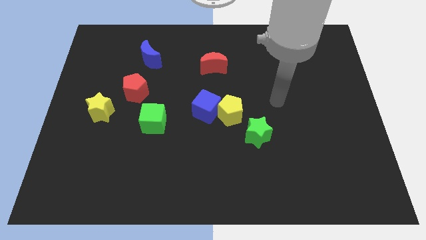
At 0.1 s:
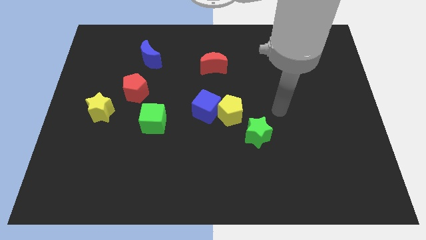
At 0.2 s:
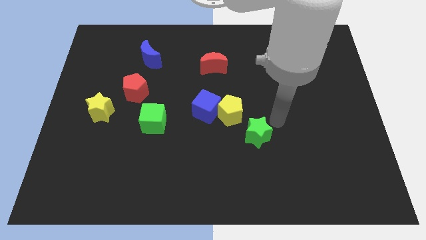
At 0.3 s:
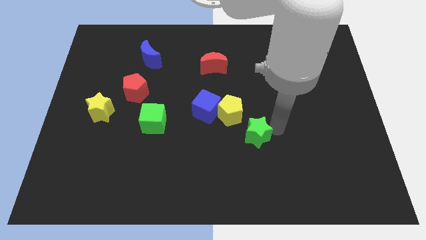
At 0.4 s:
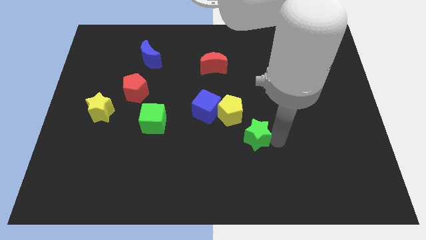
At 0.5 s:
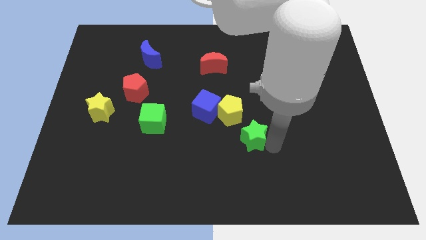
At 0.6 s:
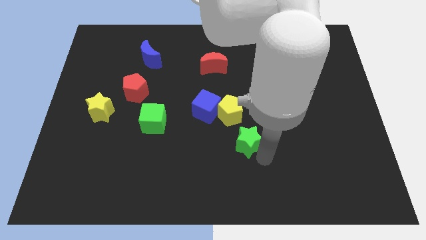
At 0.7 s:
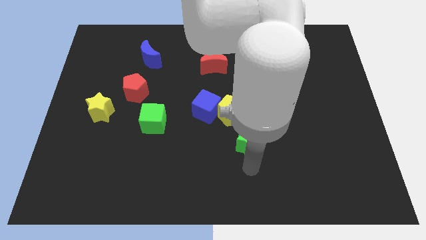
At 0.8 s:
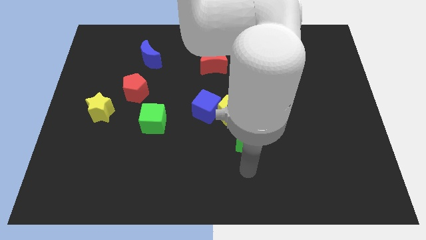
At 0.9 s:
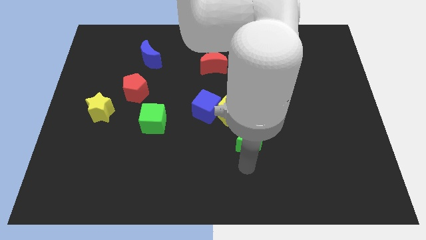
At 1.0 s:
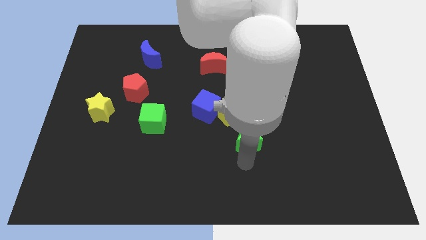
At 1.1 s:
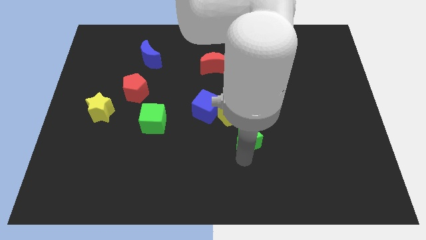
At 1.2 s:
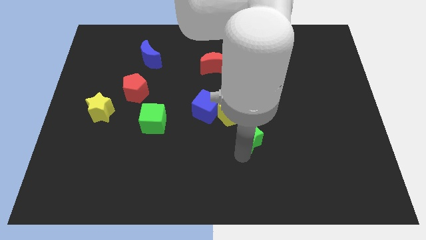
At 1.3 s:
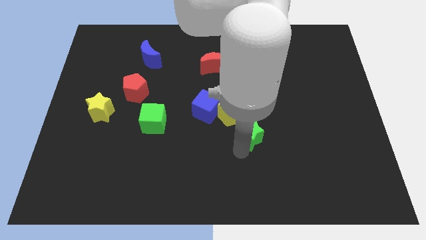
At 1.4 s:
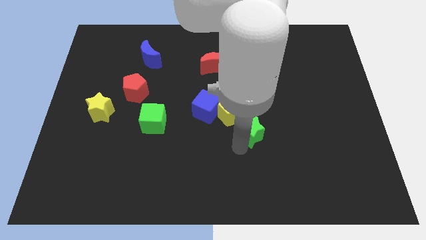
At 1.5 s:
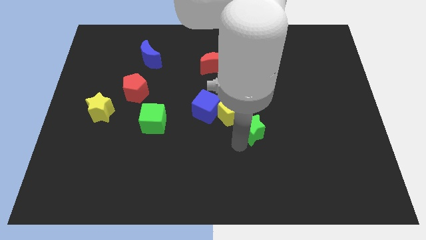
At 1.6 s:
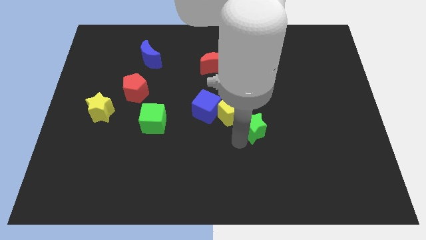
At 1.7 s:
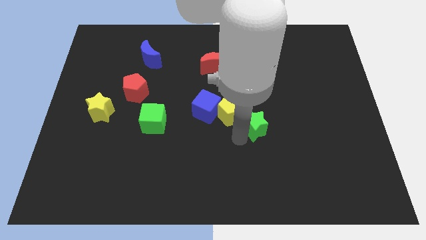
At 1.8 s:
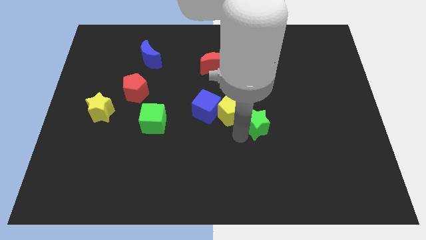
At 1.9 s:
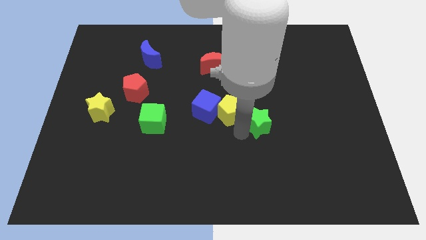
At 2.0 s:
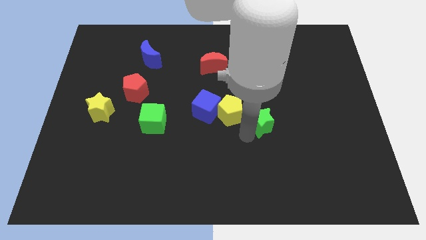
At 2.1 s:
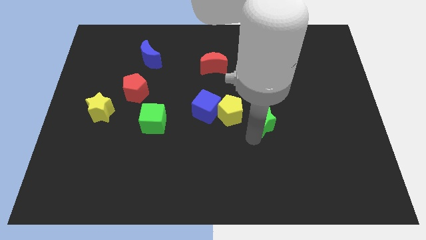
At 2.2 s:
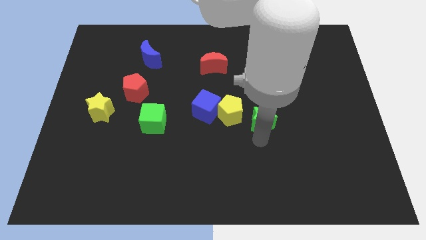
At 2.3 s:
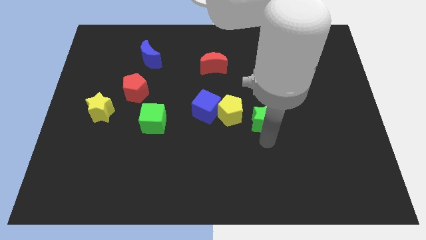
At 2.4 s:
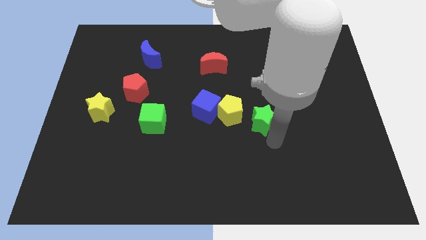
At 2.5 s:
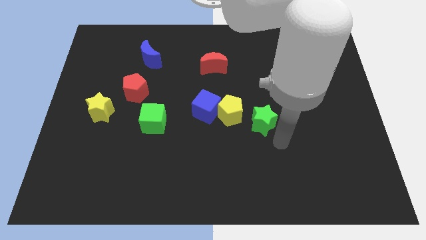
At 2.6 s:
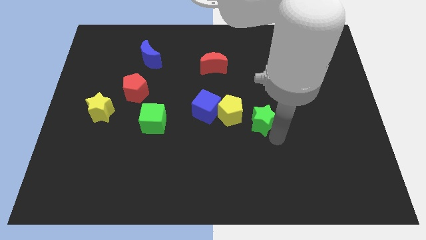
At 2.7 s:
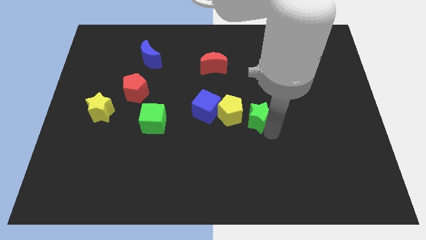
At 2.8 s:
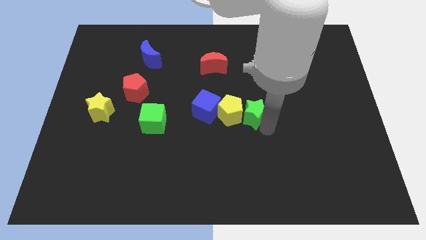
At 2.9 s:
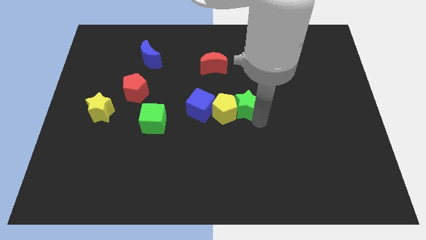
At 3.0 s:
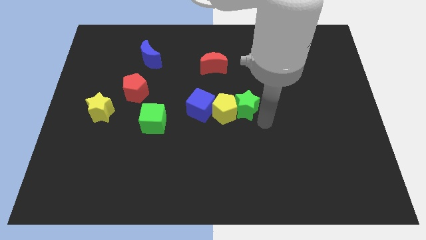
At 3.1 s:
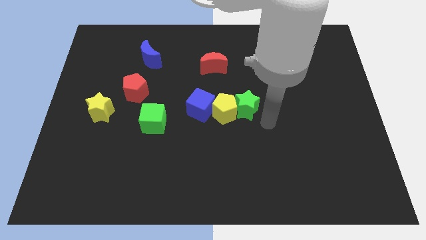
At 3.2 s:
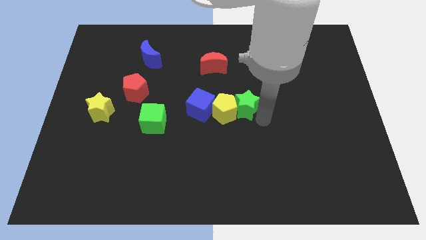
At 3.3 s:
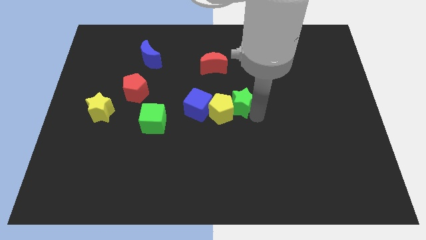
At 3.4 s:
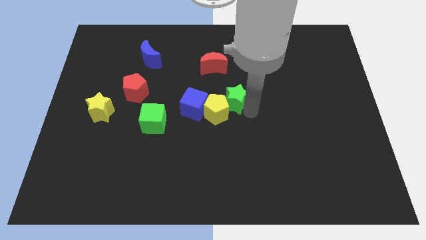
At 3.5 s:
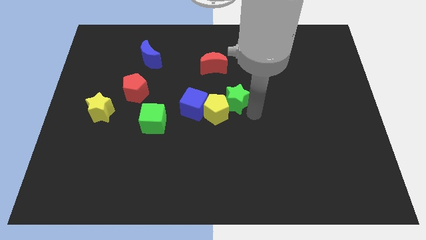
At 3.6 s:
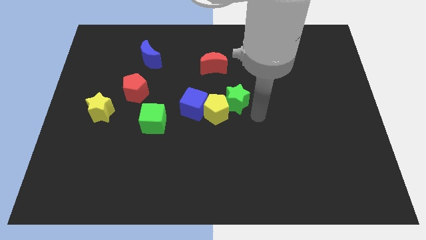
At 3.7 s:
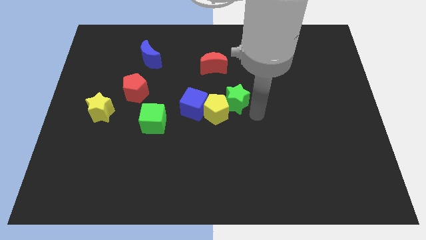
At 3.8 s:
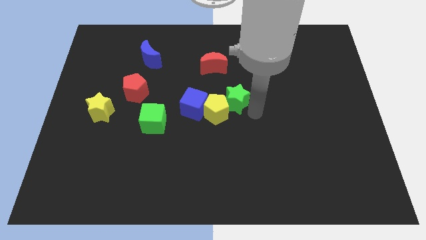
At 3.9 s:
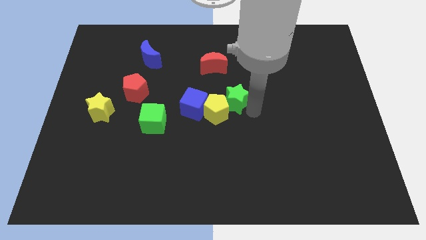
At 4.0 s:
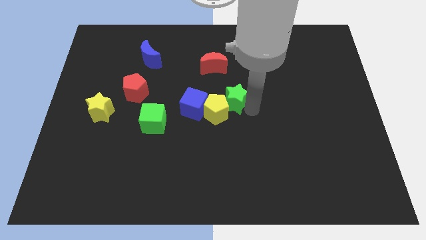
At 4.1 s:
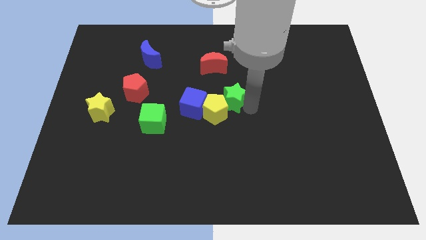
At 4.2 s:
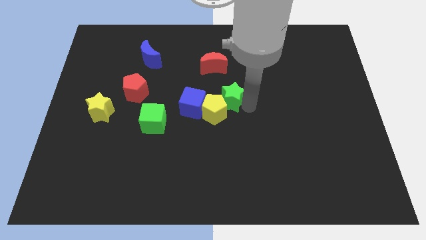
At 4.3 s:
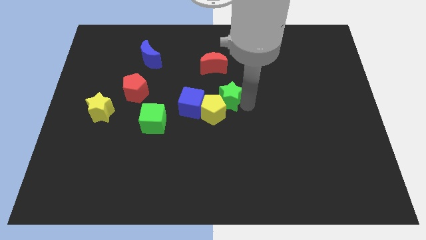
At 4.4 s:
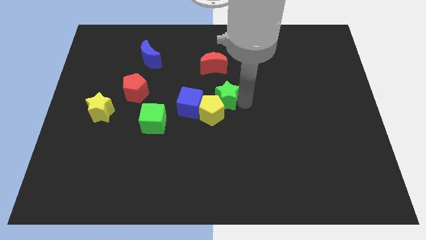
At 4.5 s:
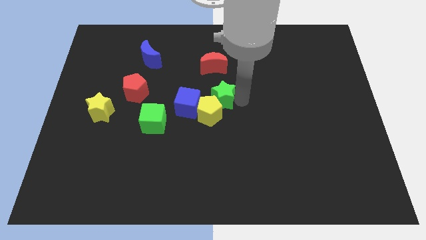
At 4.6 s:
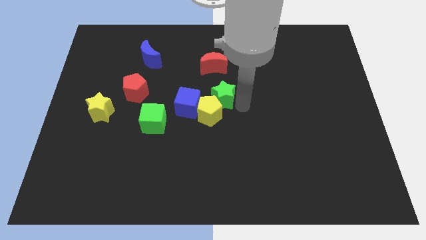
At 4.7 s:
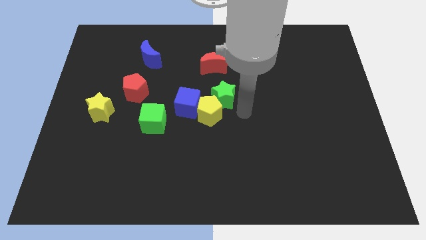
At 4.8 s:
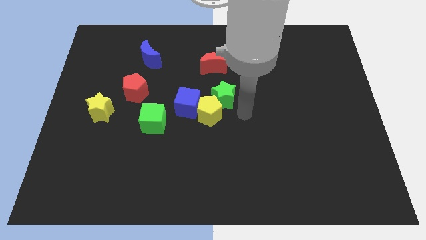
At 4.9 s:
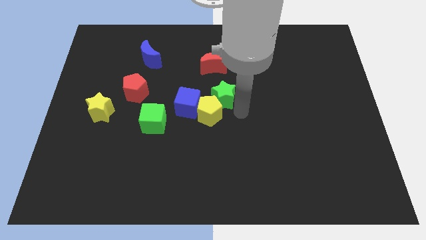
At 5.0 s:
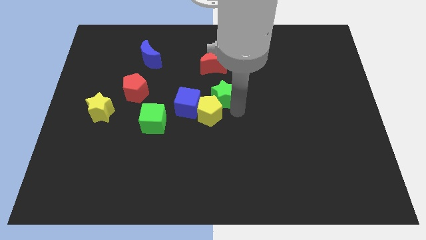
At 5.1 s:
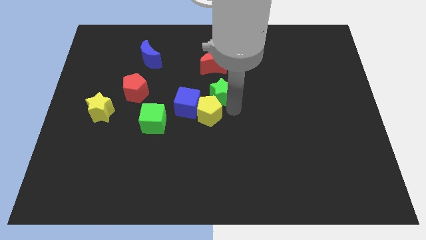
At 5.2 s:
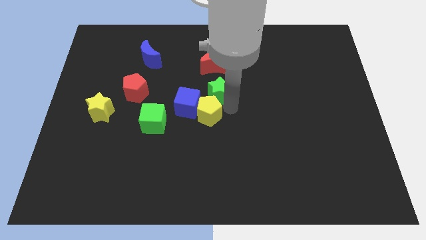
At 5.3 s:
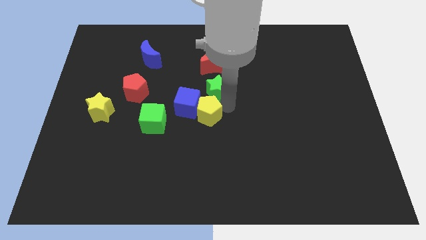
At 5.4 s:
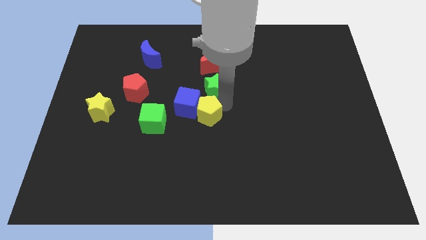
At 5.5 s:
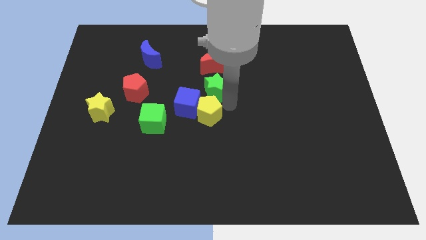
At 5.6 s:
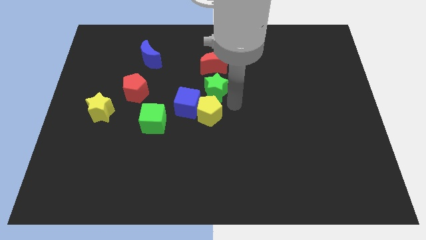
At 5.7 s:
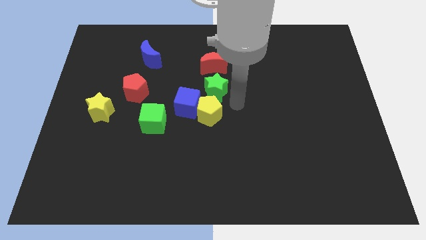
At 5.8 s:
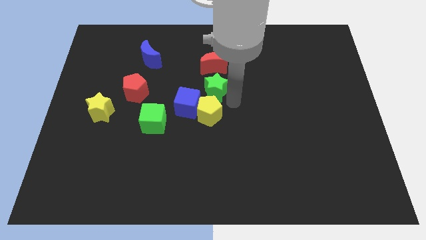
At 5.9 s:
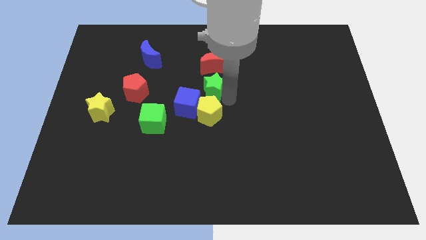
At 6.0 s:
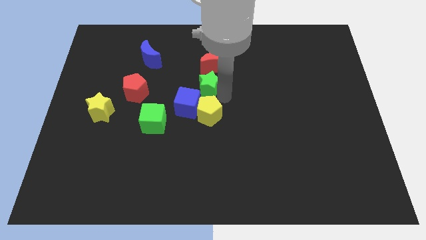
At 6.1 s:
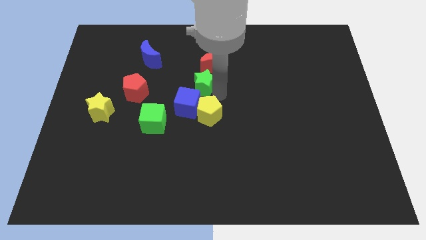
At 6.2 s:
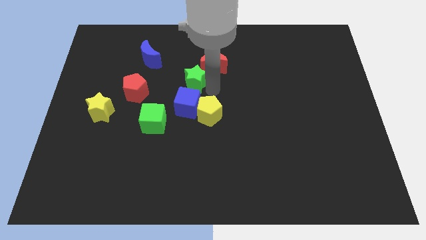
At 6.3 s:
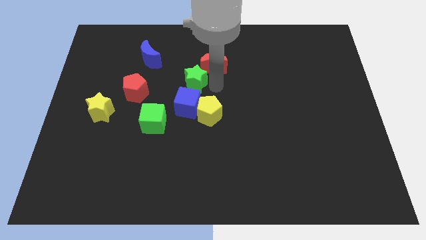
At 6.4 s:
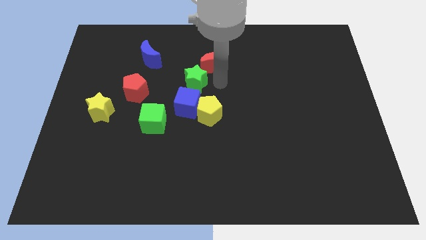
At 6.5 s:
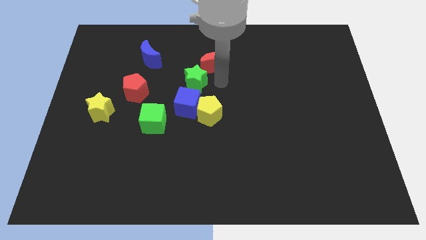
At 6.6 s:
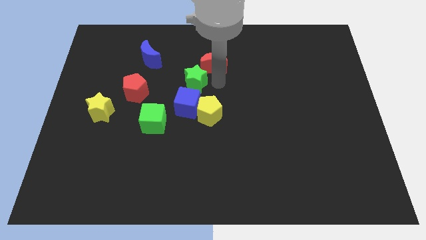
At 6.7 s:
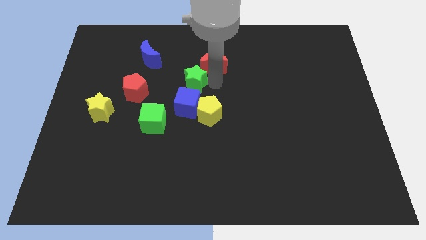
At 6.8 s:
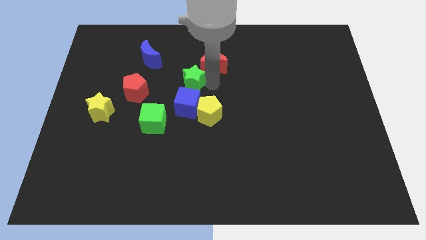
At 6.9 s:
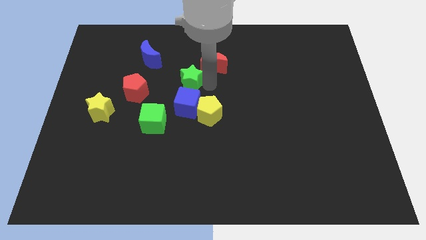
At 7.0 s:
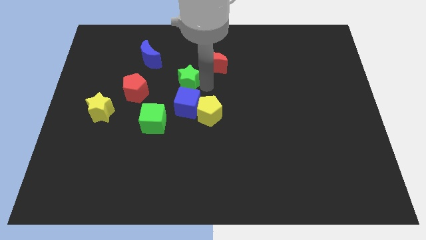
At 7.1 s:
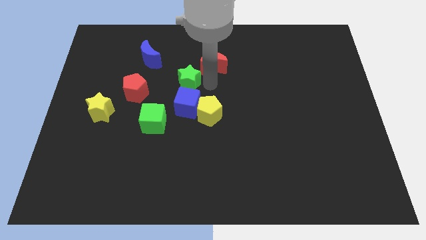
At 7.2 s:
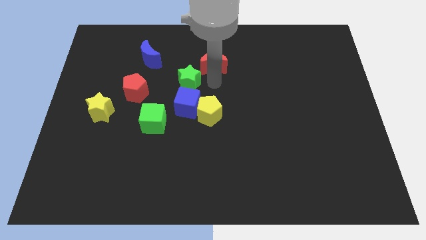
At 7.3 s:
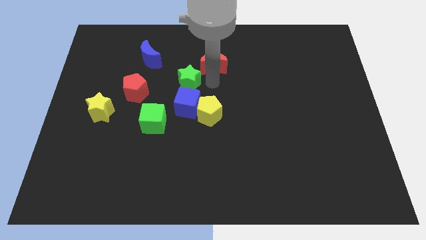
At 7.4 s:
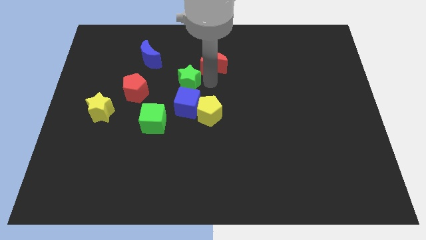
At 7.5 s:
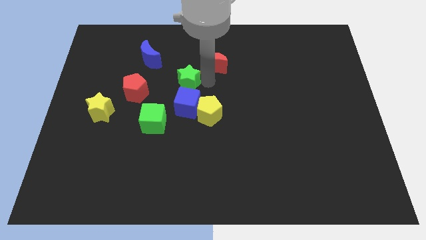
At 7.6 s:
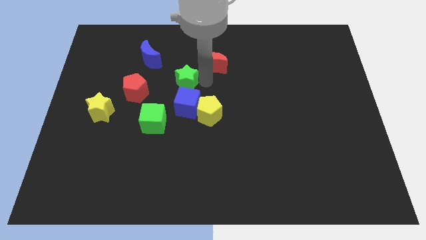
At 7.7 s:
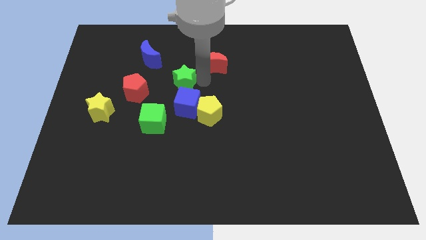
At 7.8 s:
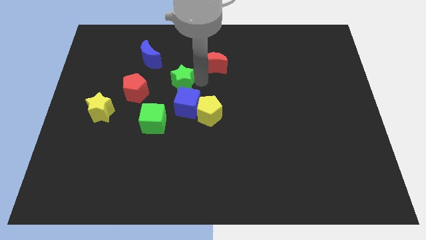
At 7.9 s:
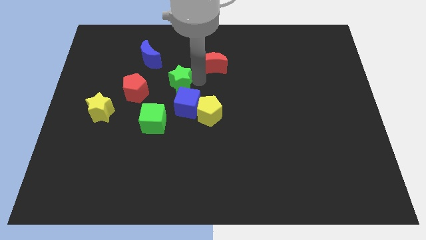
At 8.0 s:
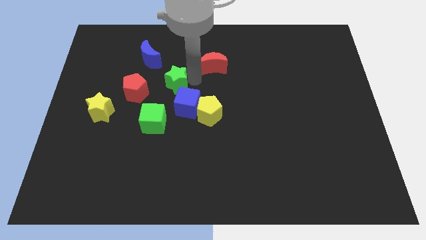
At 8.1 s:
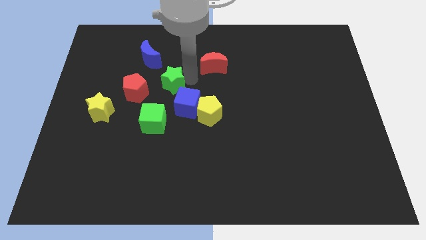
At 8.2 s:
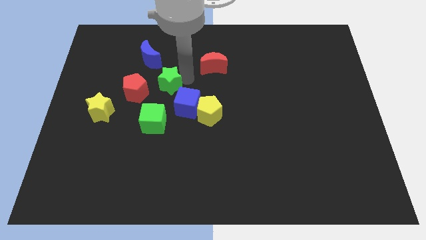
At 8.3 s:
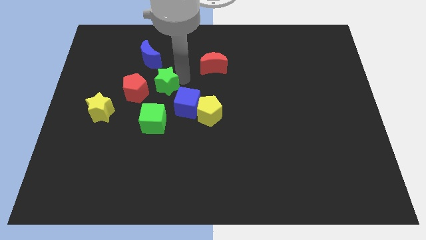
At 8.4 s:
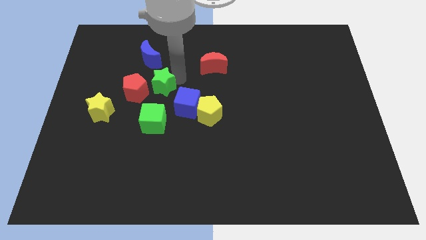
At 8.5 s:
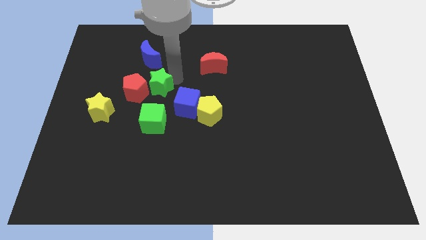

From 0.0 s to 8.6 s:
move the green star next to the red pentagon
